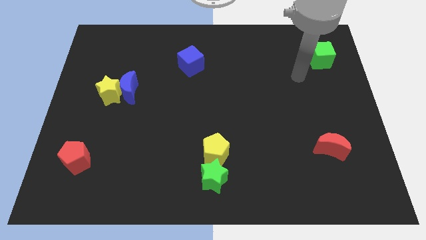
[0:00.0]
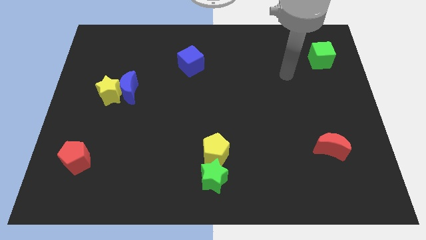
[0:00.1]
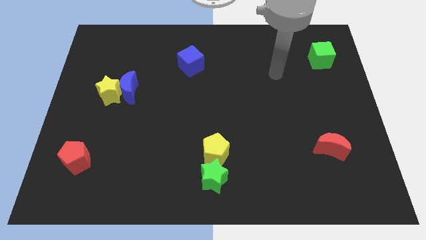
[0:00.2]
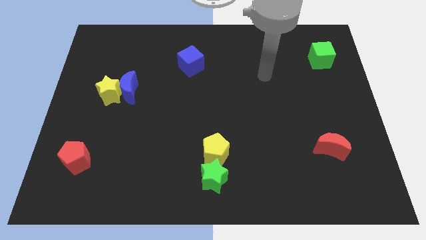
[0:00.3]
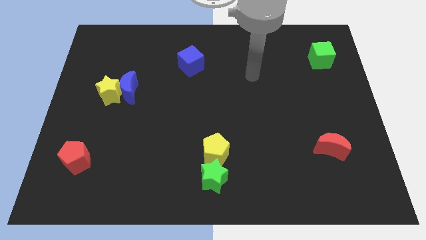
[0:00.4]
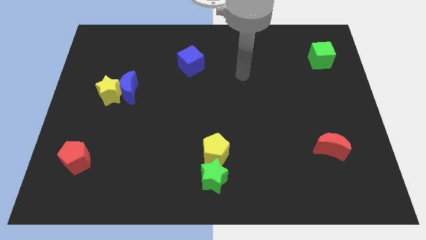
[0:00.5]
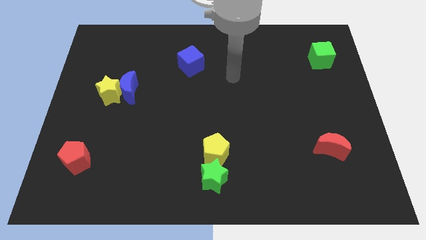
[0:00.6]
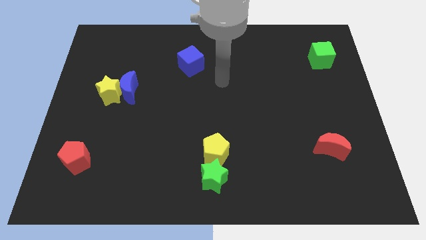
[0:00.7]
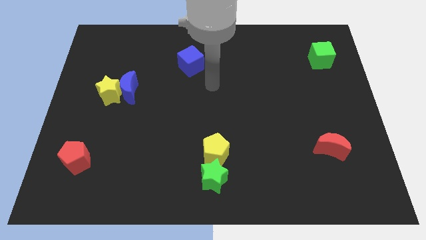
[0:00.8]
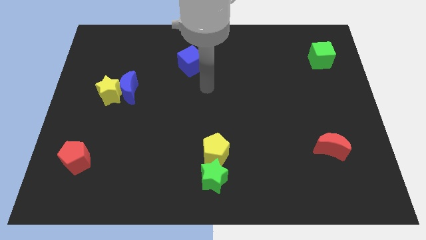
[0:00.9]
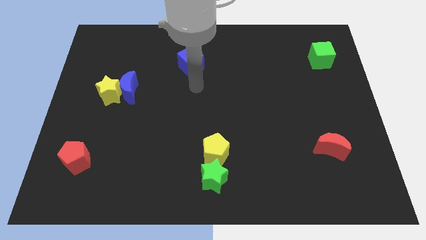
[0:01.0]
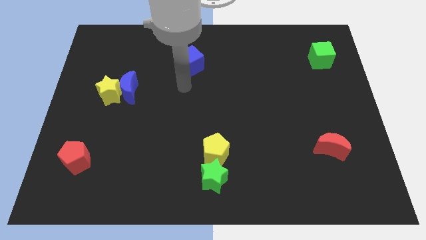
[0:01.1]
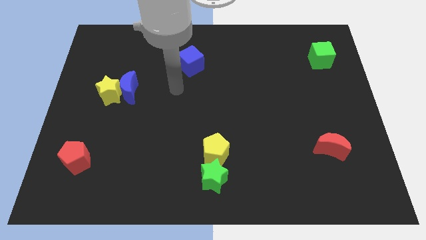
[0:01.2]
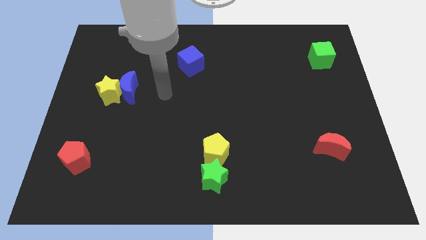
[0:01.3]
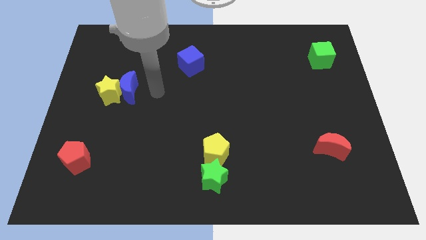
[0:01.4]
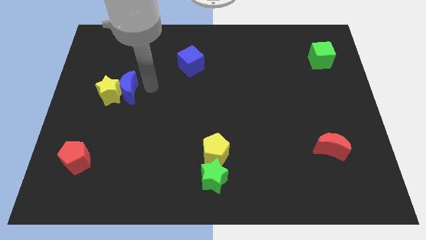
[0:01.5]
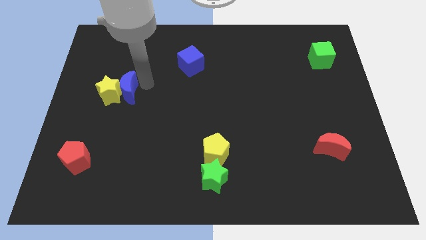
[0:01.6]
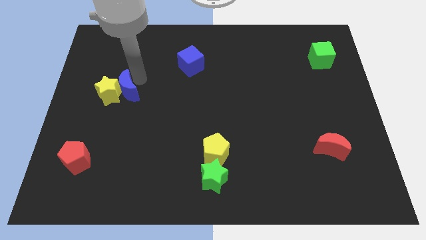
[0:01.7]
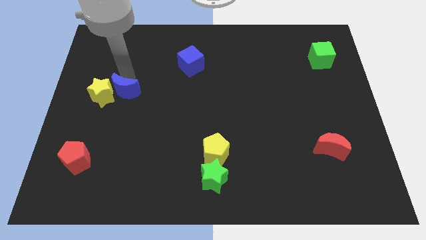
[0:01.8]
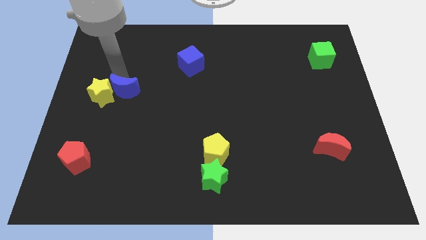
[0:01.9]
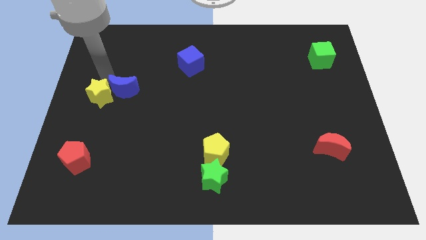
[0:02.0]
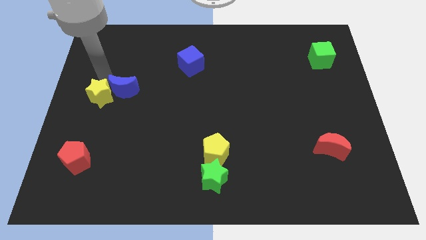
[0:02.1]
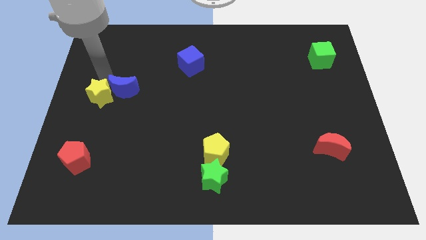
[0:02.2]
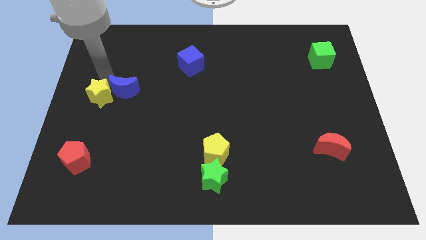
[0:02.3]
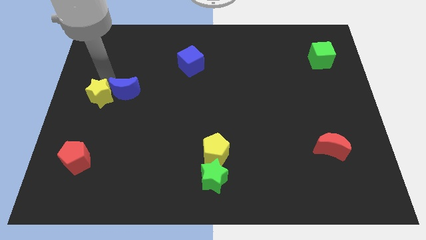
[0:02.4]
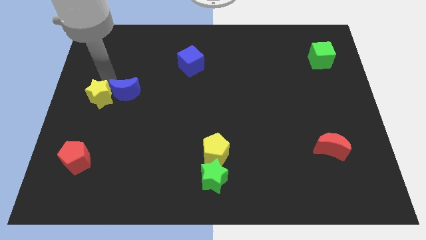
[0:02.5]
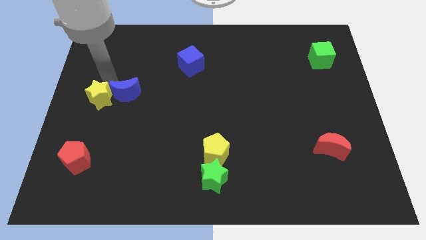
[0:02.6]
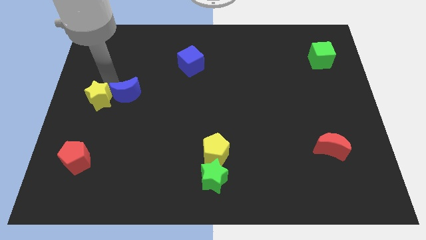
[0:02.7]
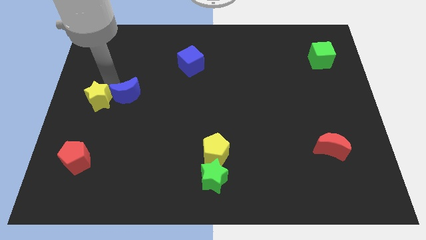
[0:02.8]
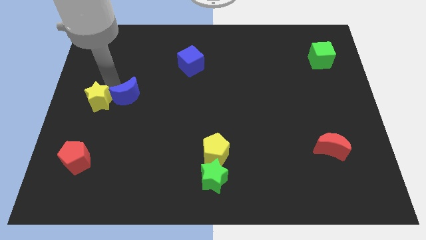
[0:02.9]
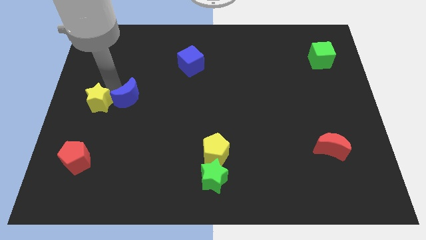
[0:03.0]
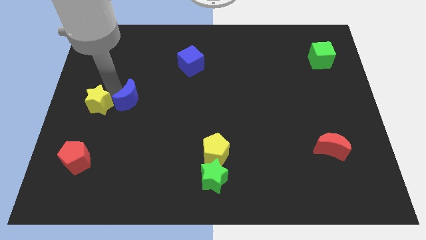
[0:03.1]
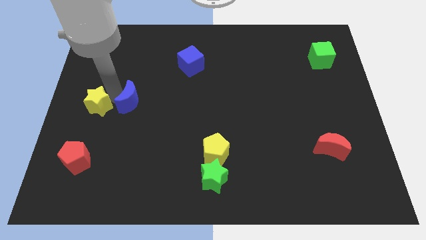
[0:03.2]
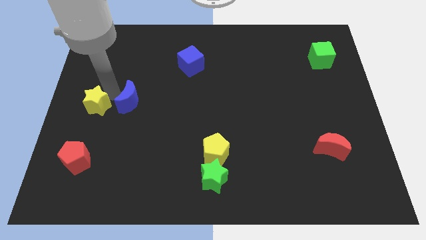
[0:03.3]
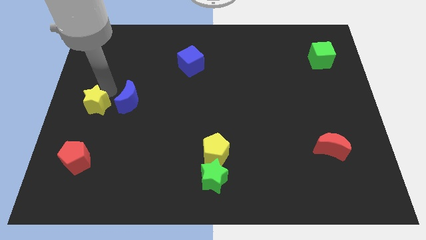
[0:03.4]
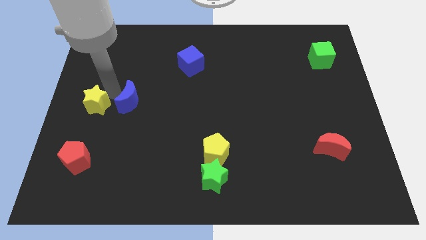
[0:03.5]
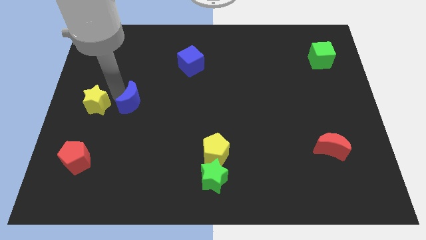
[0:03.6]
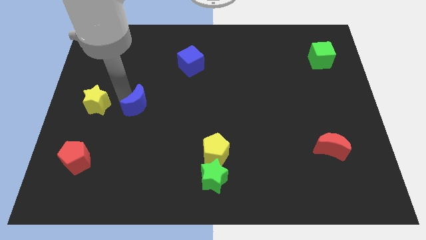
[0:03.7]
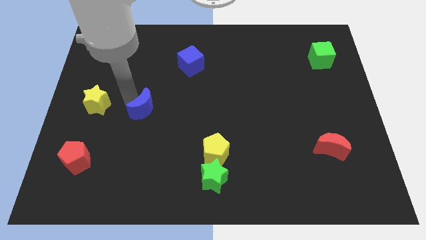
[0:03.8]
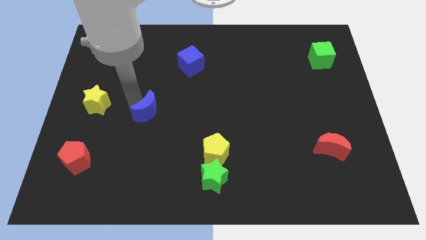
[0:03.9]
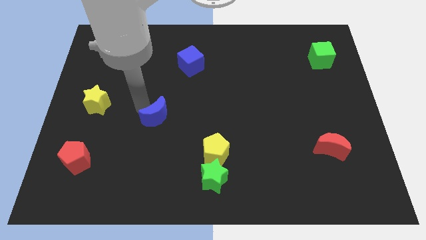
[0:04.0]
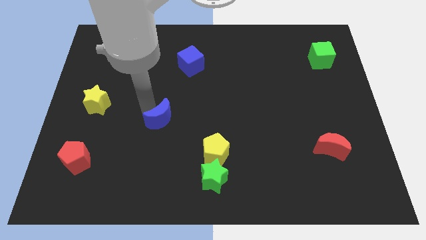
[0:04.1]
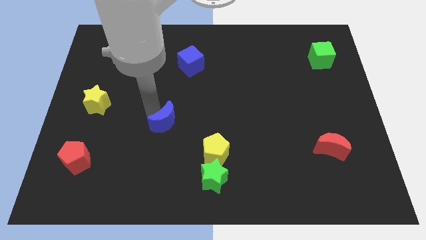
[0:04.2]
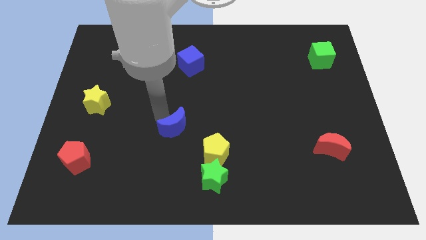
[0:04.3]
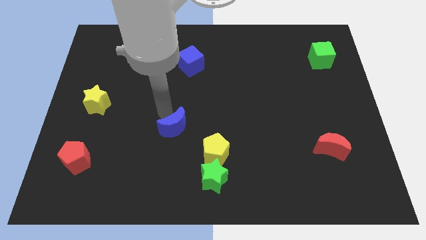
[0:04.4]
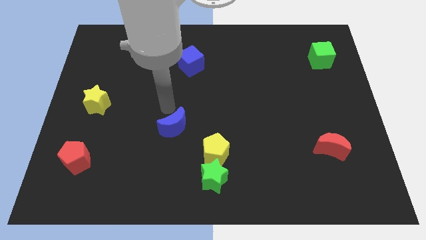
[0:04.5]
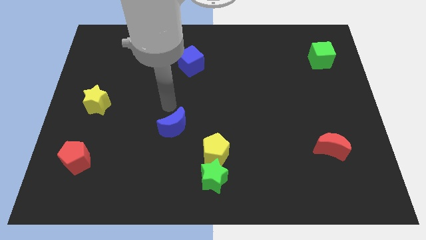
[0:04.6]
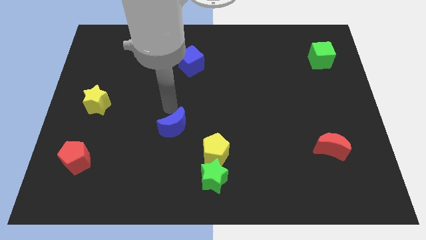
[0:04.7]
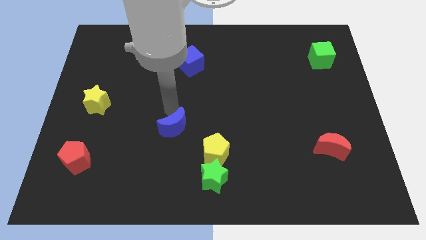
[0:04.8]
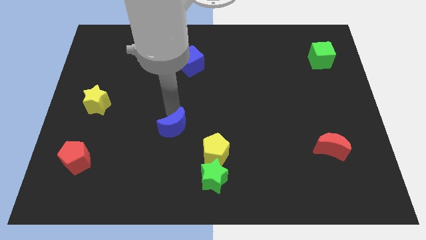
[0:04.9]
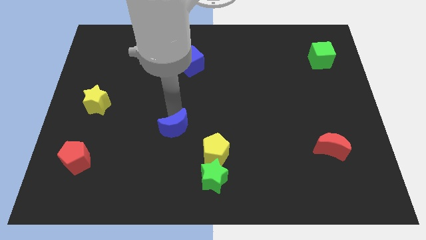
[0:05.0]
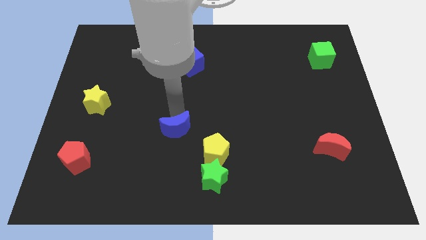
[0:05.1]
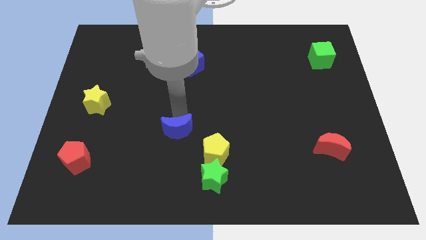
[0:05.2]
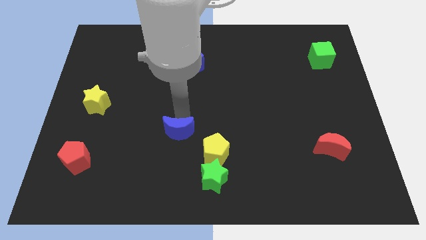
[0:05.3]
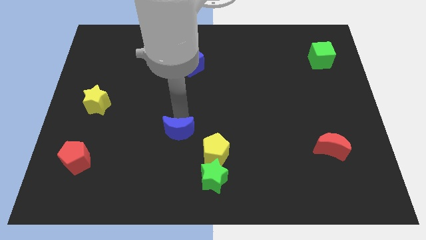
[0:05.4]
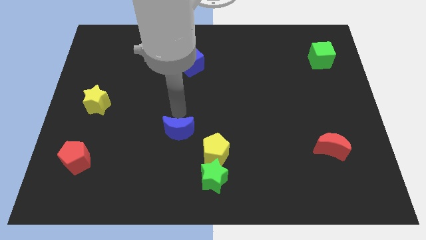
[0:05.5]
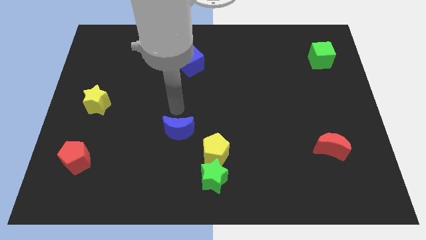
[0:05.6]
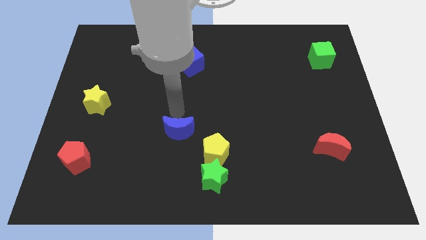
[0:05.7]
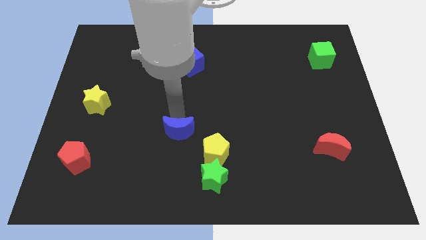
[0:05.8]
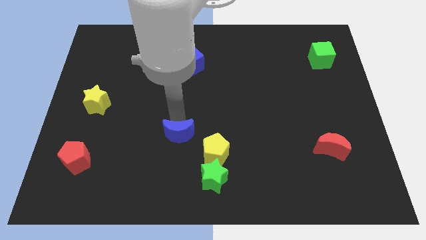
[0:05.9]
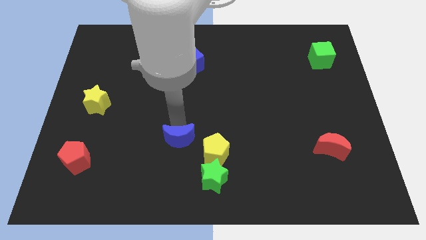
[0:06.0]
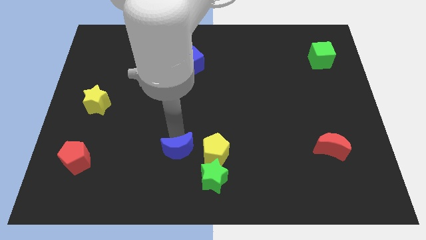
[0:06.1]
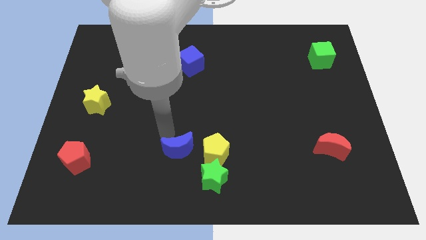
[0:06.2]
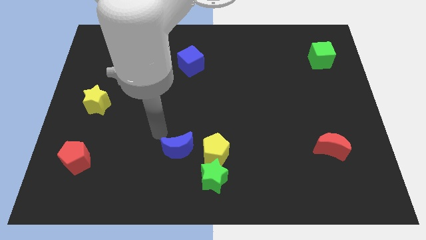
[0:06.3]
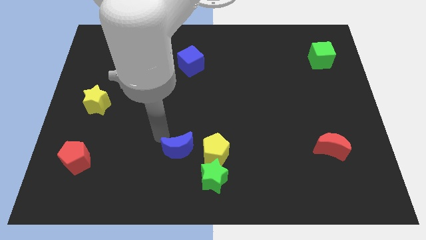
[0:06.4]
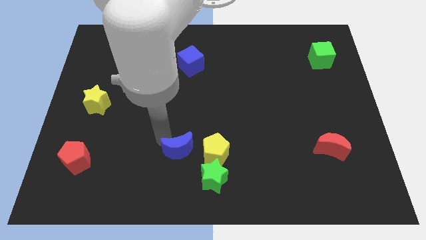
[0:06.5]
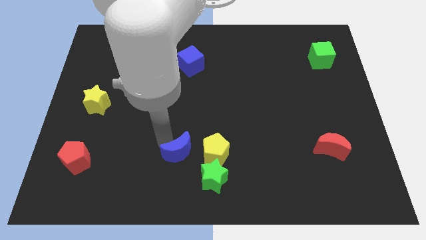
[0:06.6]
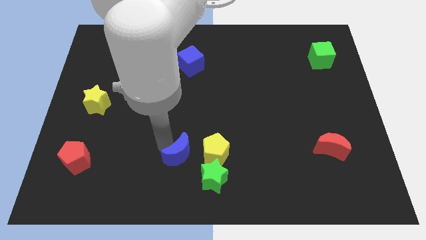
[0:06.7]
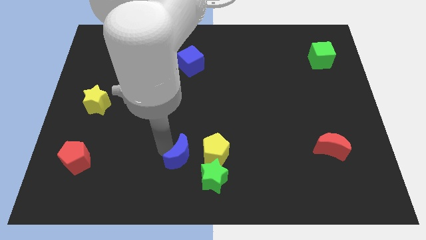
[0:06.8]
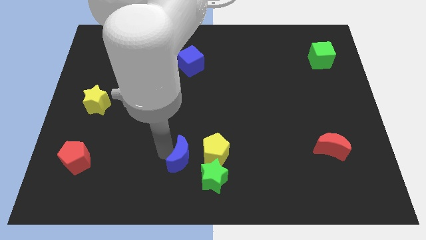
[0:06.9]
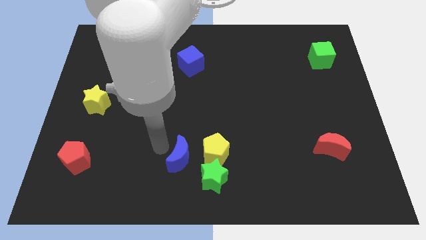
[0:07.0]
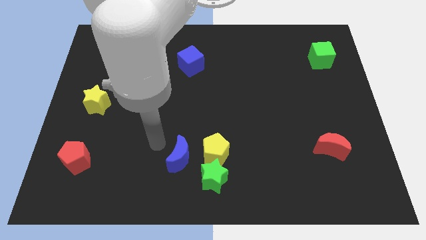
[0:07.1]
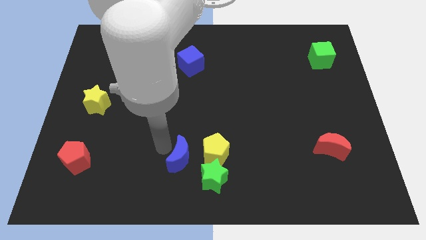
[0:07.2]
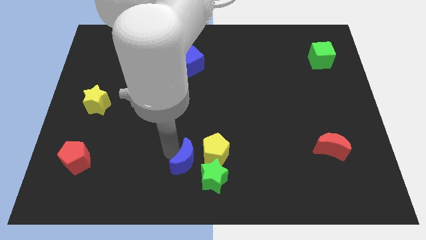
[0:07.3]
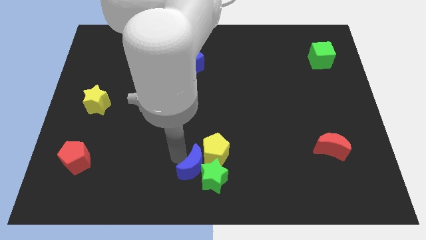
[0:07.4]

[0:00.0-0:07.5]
move the blue moon towards the green star
